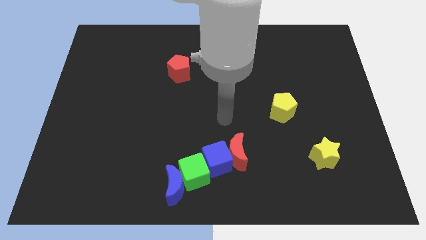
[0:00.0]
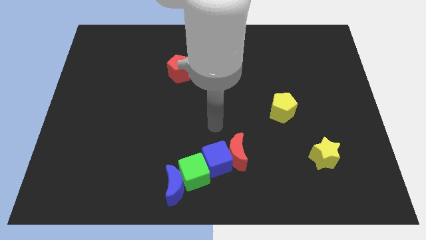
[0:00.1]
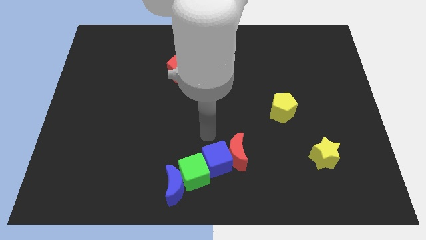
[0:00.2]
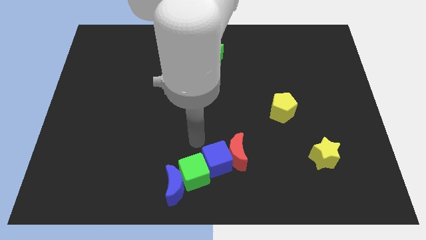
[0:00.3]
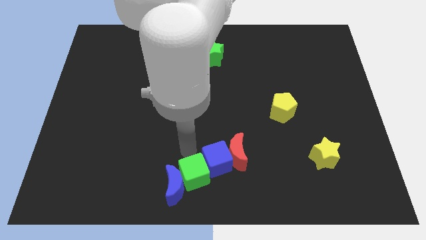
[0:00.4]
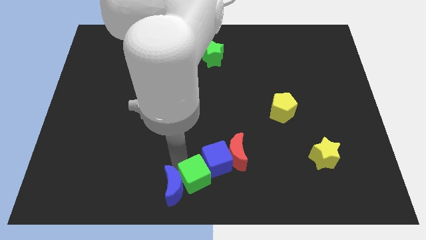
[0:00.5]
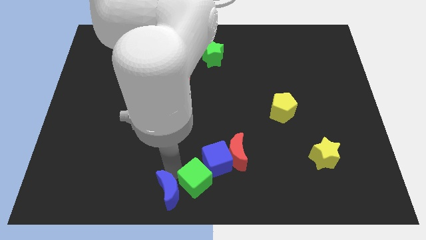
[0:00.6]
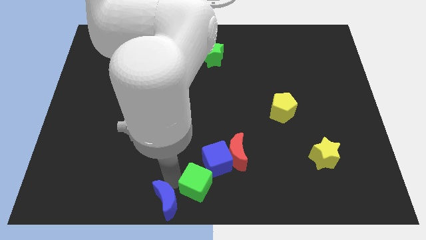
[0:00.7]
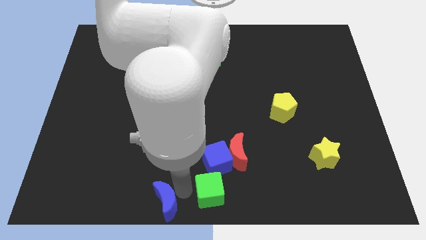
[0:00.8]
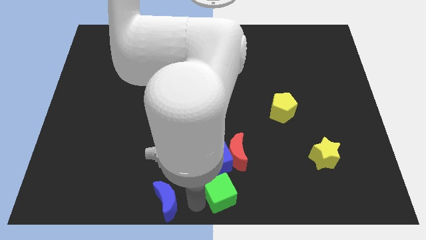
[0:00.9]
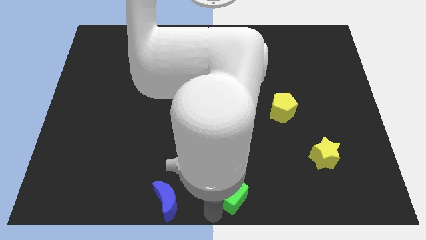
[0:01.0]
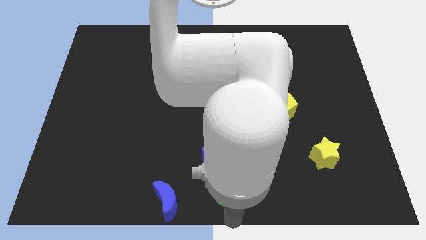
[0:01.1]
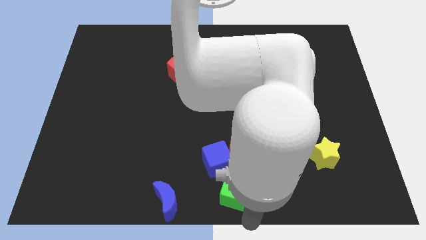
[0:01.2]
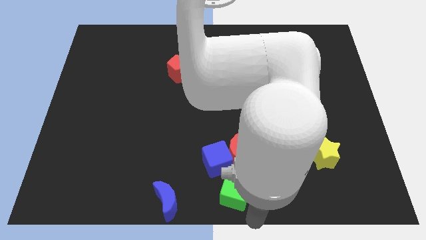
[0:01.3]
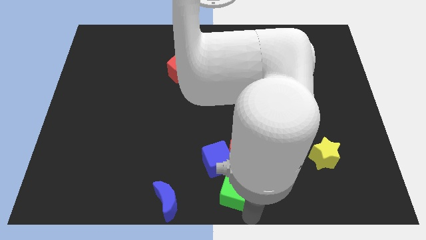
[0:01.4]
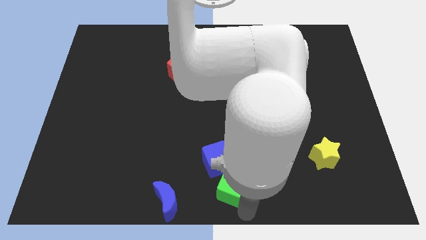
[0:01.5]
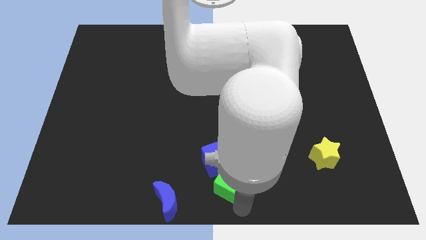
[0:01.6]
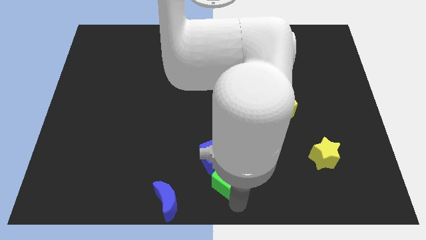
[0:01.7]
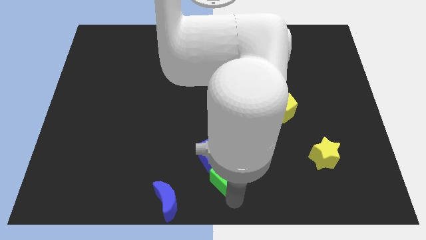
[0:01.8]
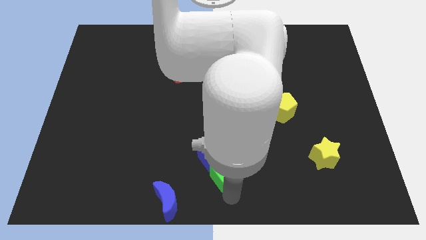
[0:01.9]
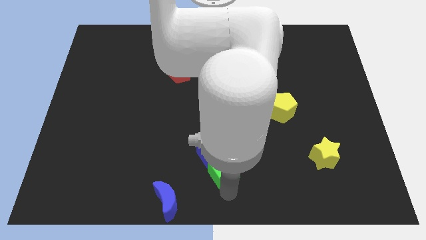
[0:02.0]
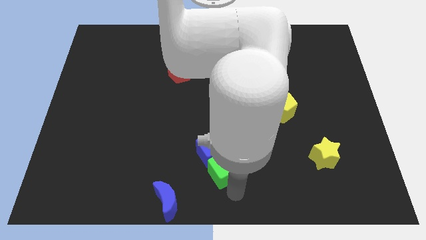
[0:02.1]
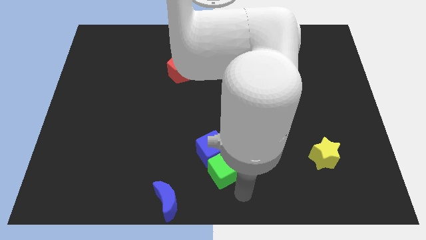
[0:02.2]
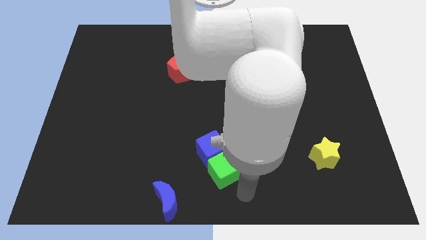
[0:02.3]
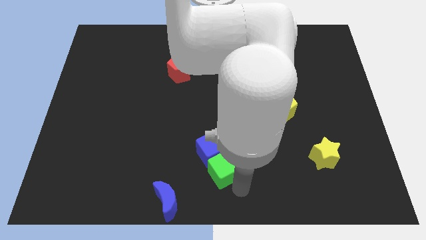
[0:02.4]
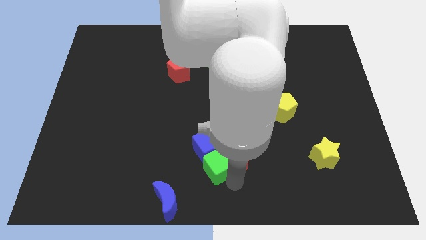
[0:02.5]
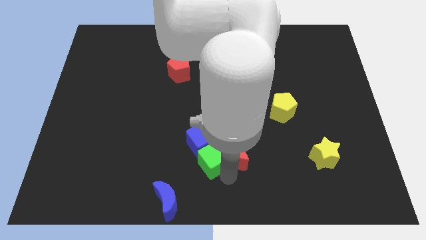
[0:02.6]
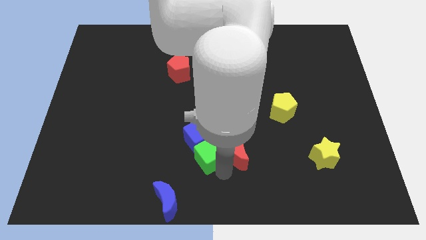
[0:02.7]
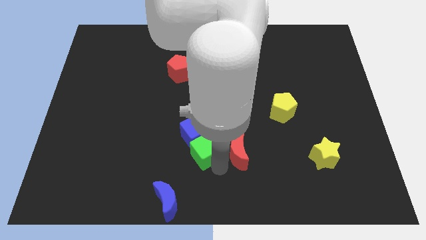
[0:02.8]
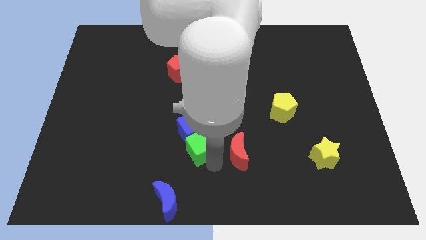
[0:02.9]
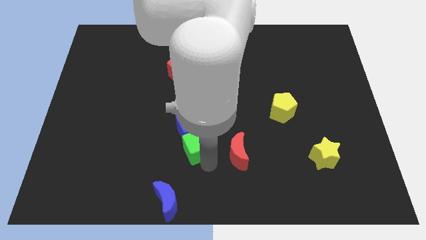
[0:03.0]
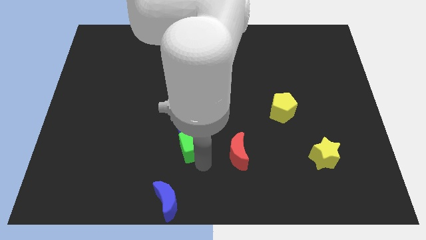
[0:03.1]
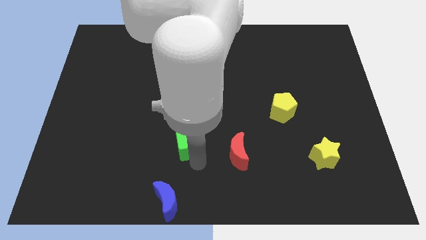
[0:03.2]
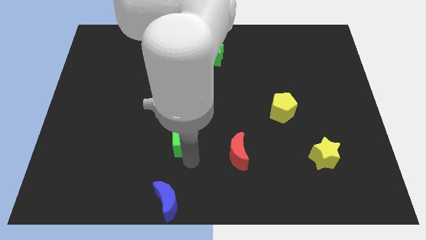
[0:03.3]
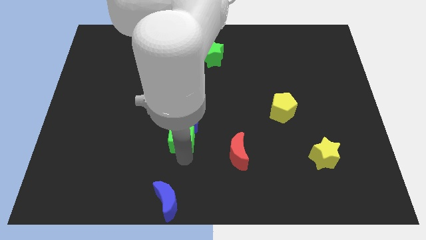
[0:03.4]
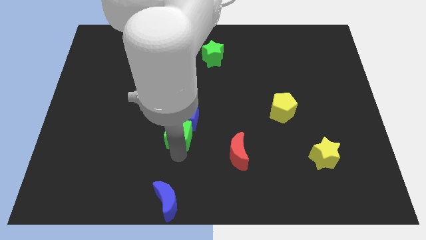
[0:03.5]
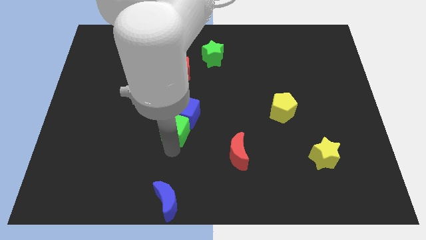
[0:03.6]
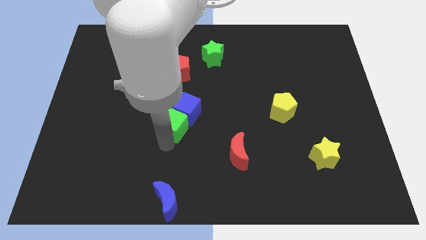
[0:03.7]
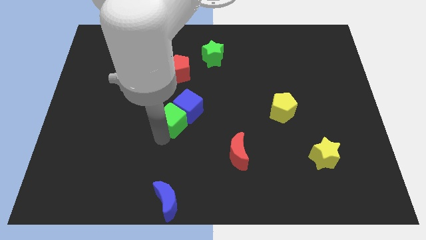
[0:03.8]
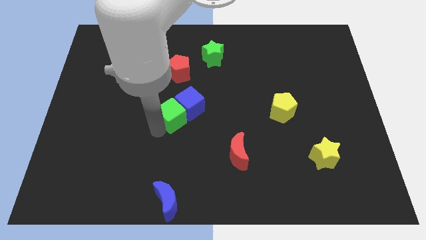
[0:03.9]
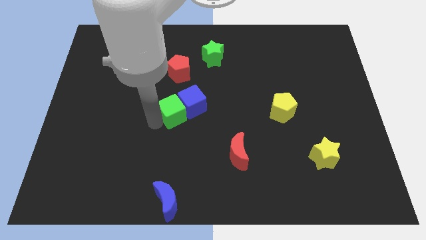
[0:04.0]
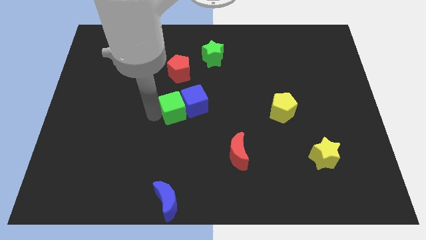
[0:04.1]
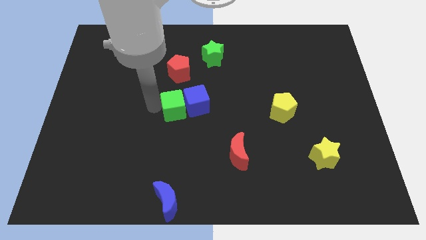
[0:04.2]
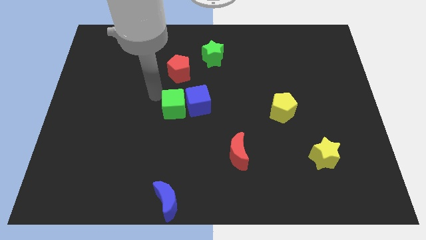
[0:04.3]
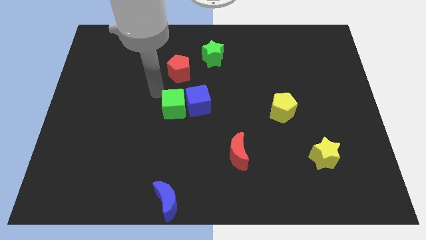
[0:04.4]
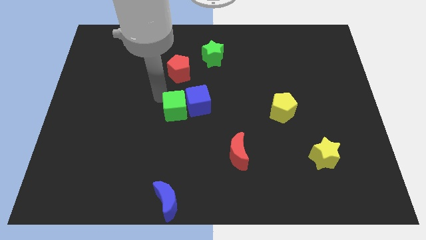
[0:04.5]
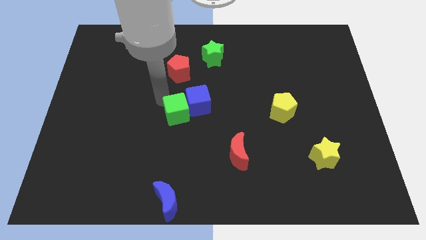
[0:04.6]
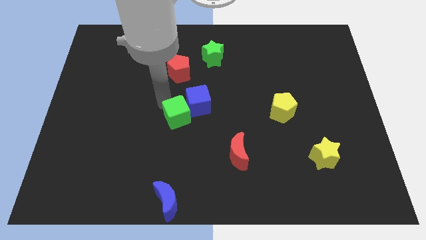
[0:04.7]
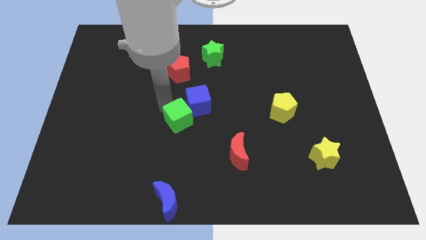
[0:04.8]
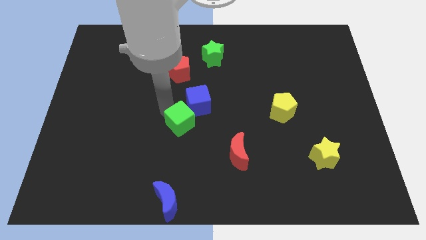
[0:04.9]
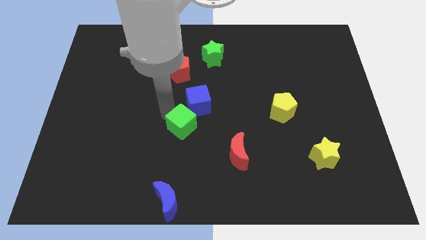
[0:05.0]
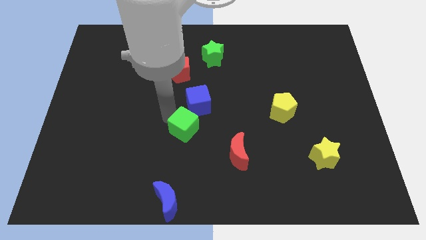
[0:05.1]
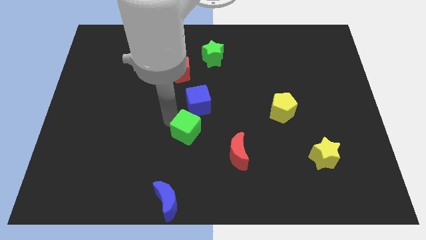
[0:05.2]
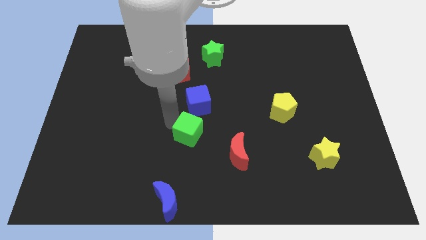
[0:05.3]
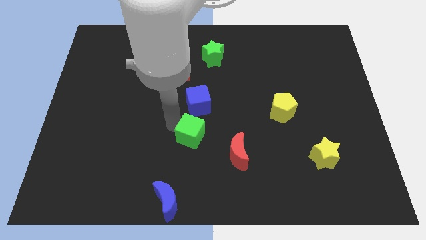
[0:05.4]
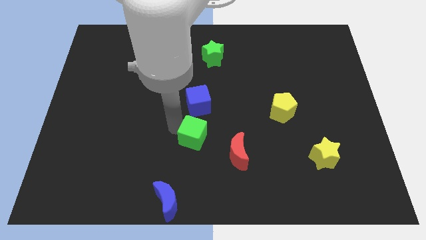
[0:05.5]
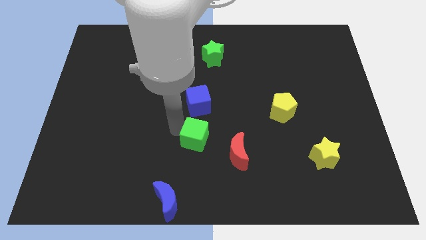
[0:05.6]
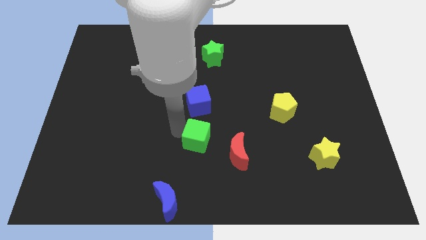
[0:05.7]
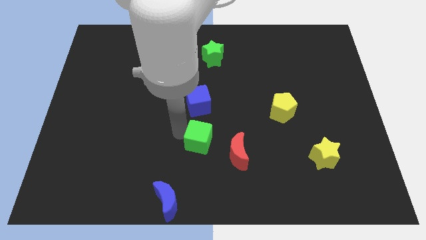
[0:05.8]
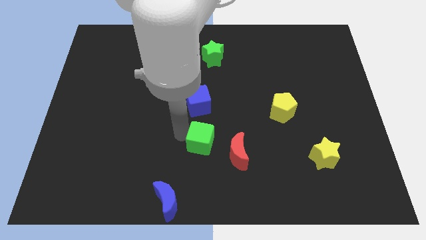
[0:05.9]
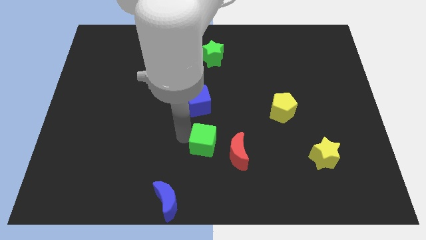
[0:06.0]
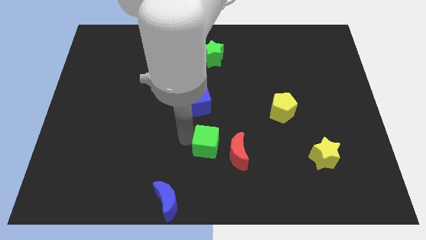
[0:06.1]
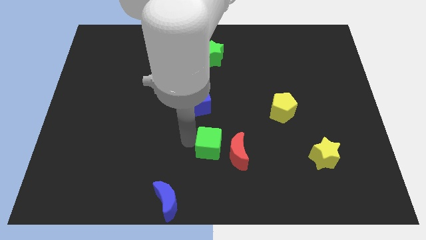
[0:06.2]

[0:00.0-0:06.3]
slide the green cube upwards and to the right slightly

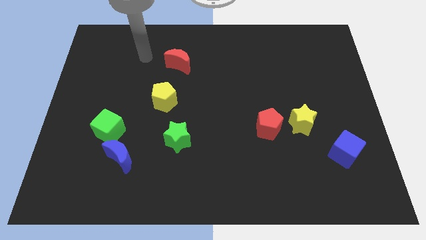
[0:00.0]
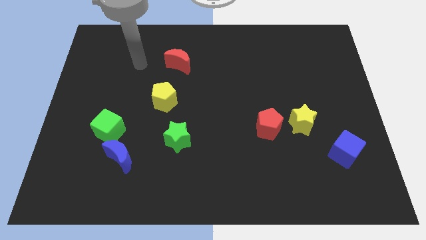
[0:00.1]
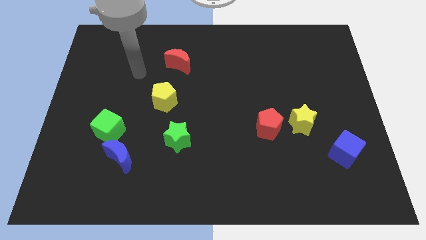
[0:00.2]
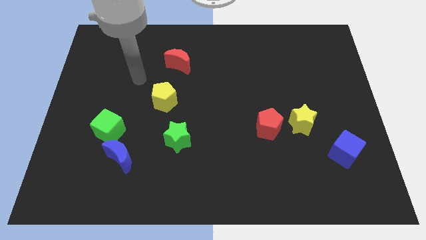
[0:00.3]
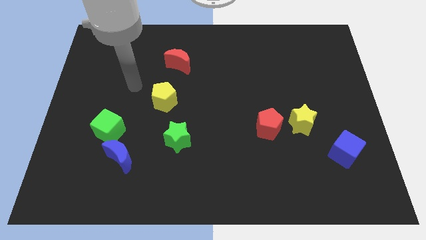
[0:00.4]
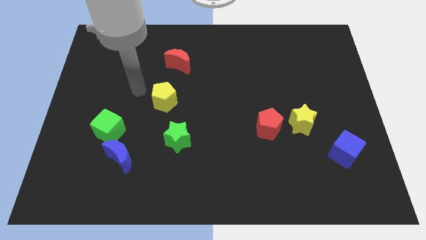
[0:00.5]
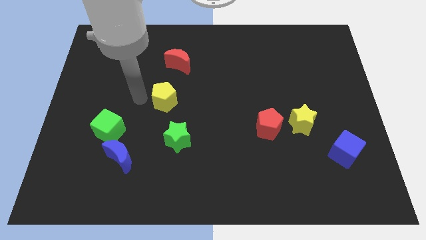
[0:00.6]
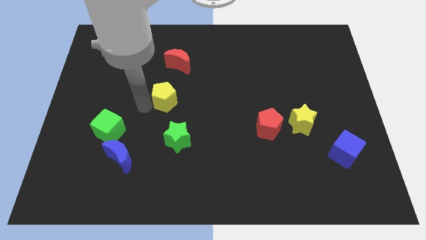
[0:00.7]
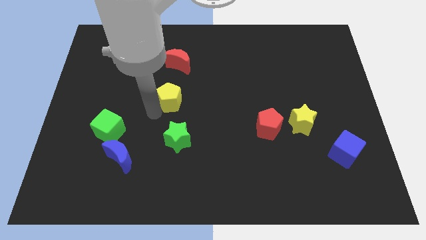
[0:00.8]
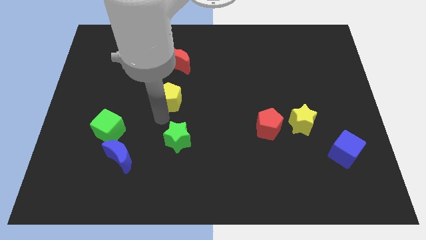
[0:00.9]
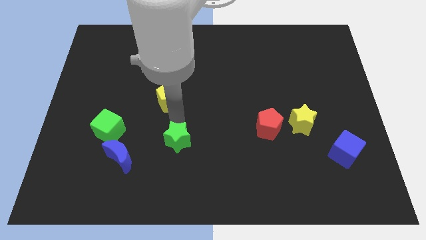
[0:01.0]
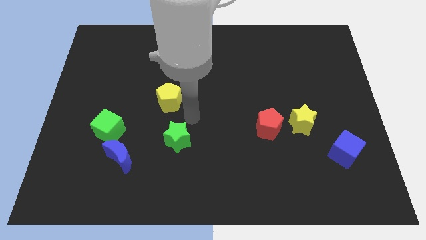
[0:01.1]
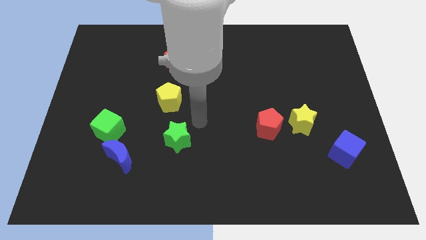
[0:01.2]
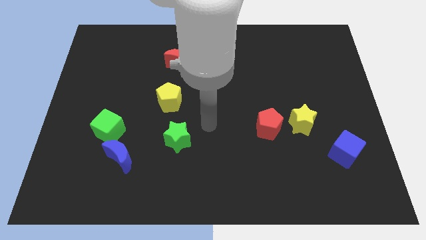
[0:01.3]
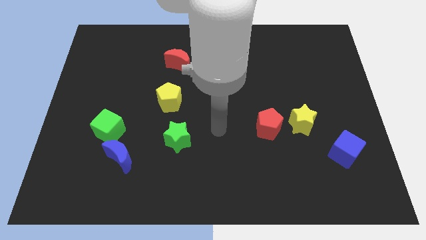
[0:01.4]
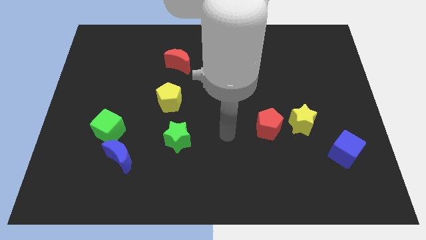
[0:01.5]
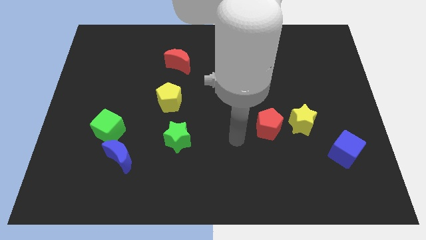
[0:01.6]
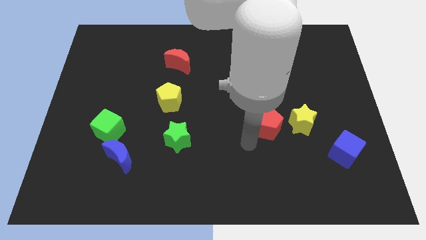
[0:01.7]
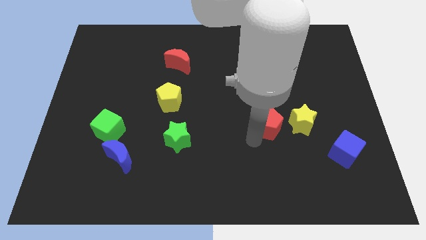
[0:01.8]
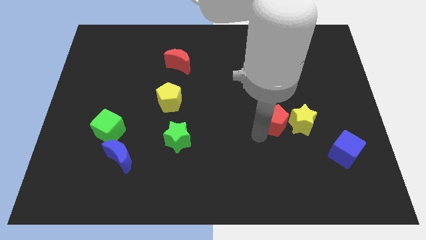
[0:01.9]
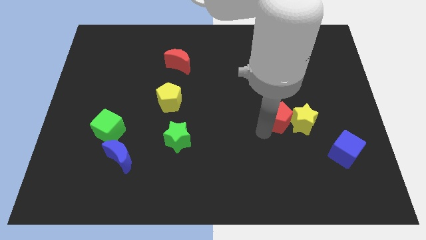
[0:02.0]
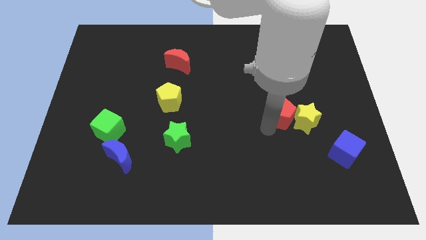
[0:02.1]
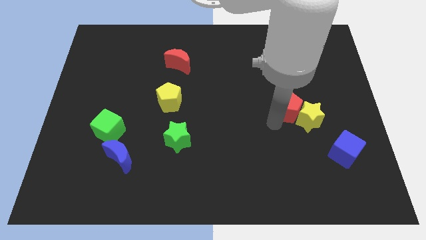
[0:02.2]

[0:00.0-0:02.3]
move the red pentagon a little diagonally upwards and to the right
